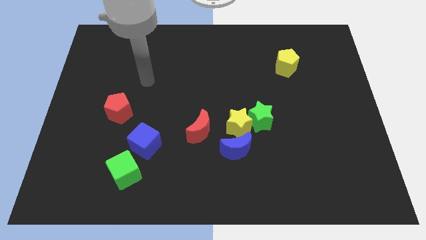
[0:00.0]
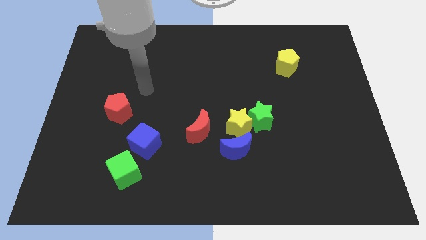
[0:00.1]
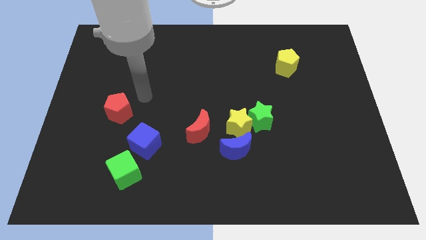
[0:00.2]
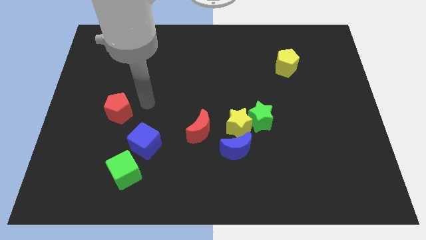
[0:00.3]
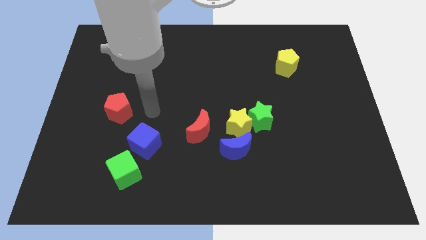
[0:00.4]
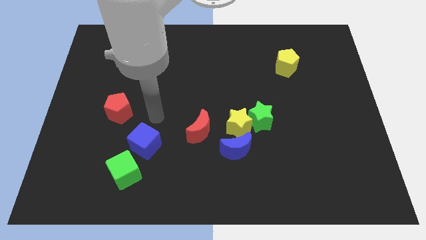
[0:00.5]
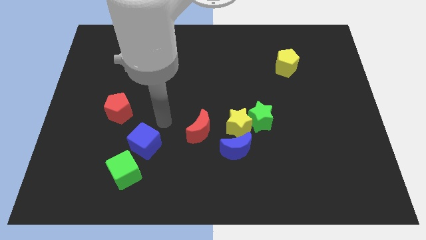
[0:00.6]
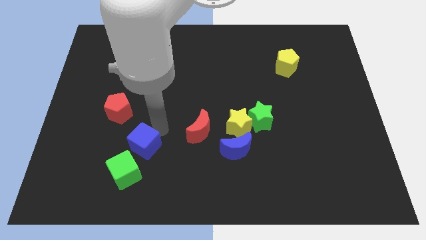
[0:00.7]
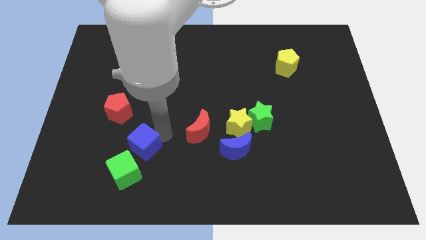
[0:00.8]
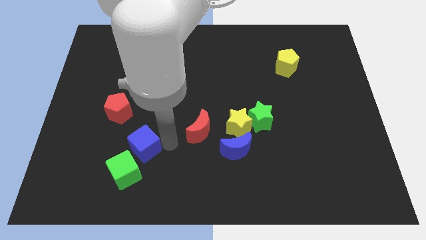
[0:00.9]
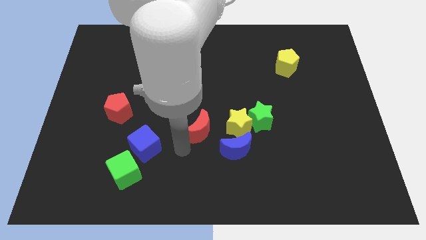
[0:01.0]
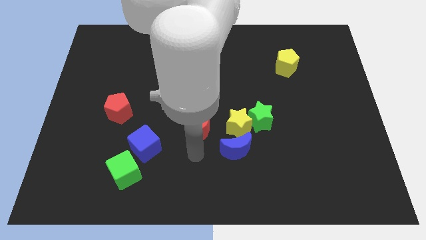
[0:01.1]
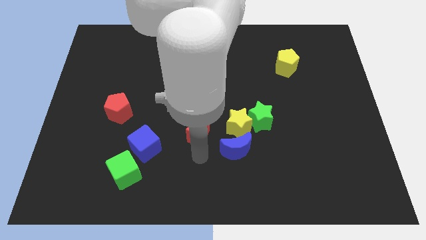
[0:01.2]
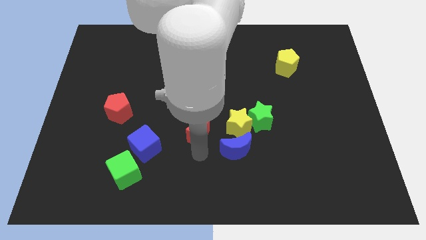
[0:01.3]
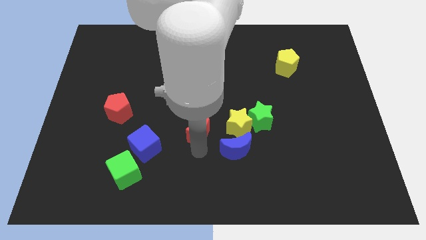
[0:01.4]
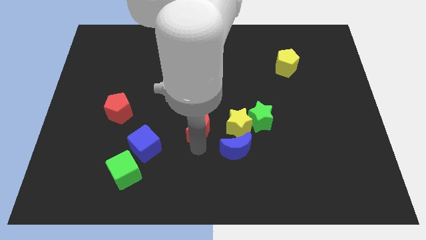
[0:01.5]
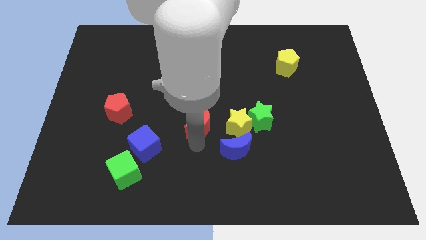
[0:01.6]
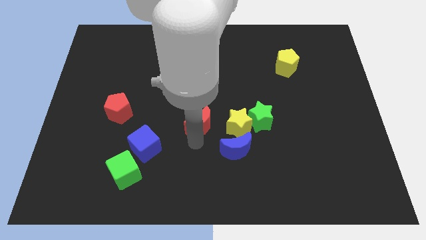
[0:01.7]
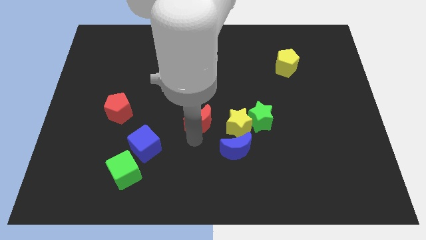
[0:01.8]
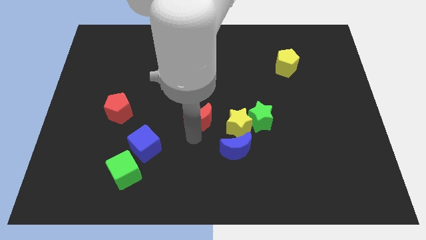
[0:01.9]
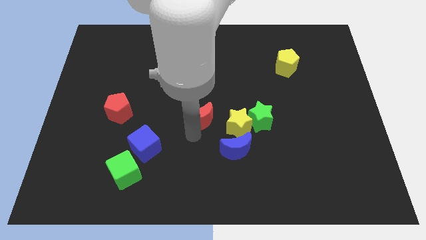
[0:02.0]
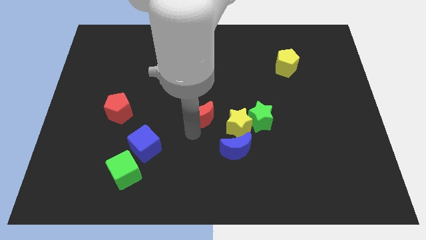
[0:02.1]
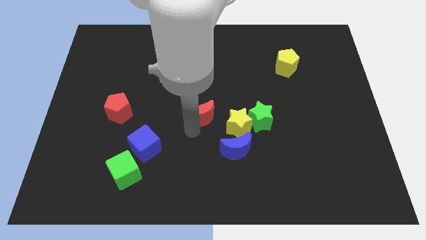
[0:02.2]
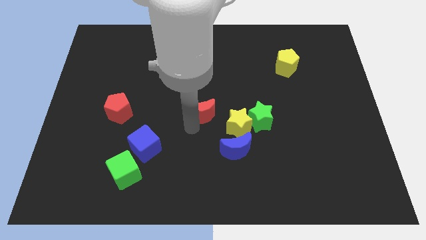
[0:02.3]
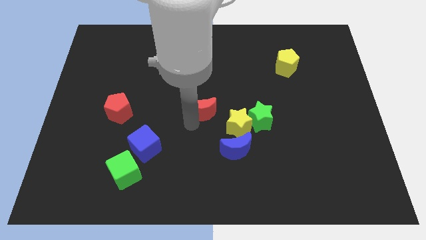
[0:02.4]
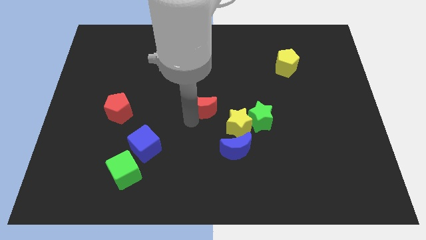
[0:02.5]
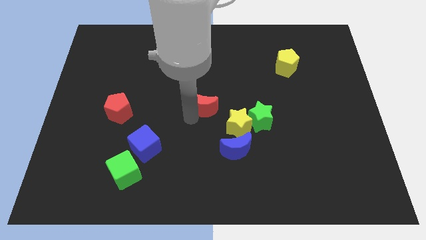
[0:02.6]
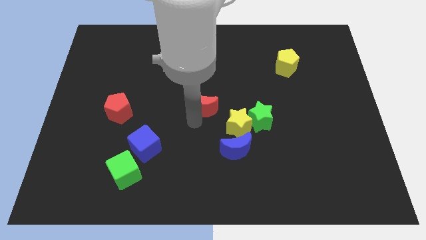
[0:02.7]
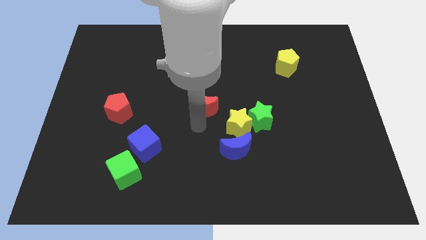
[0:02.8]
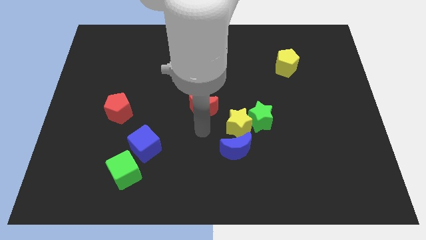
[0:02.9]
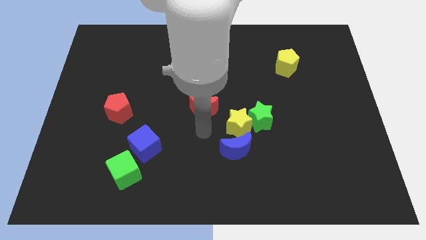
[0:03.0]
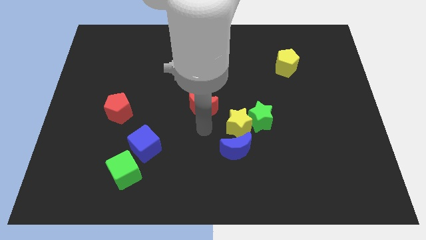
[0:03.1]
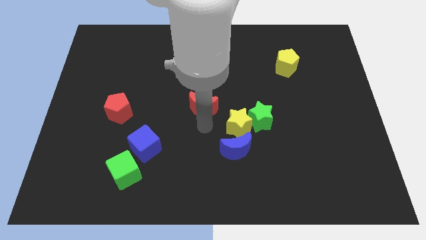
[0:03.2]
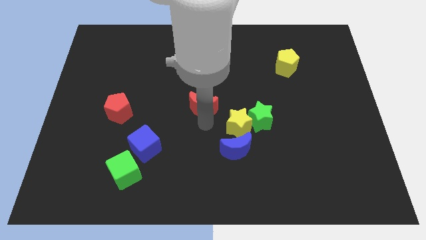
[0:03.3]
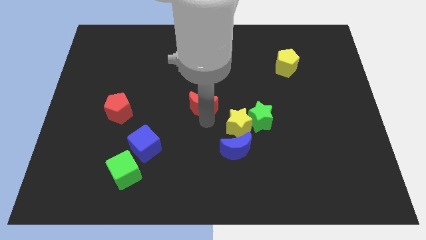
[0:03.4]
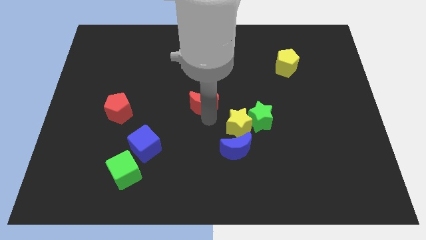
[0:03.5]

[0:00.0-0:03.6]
move the red moon upwards a bit

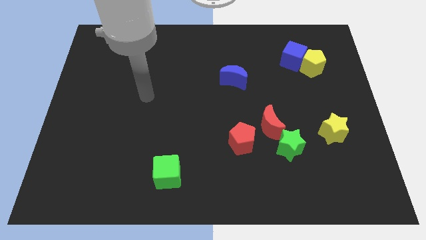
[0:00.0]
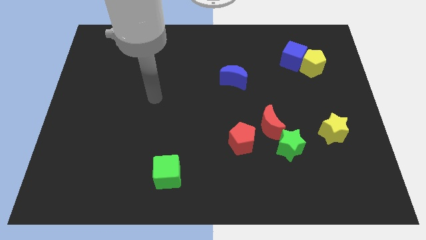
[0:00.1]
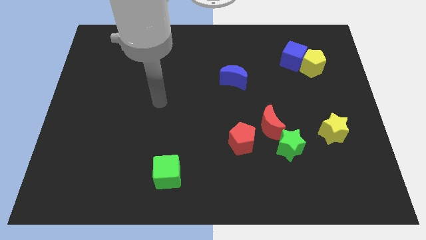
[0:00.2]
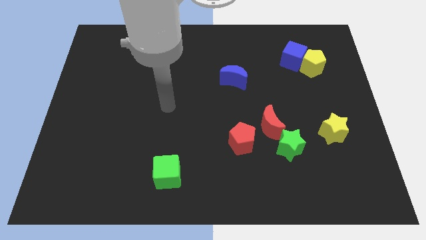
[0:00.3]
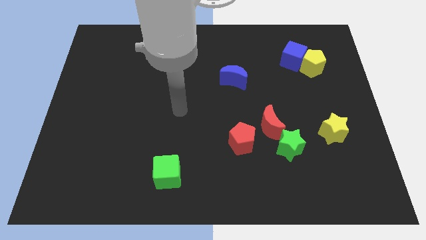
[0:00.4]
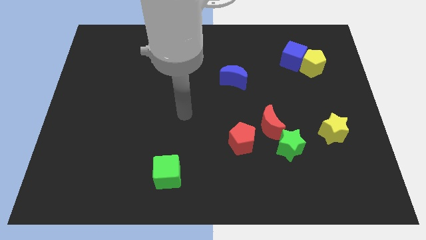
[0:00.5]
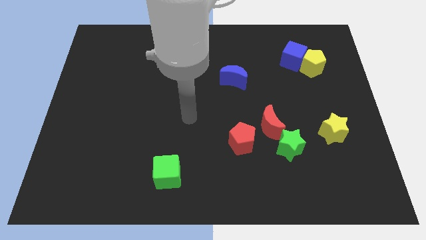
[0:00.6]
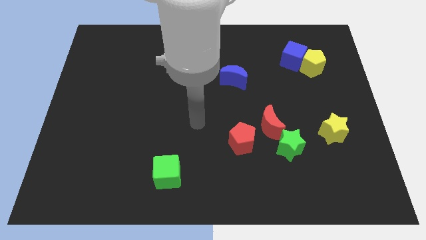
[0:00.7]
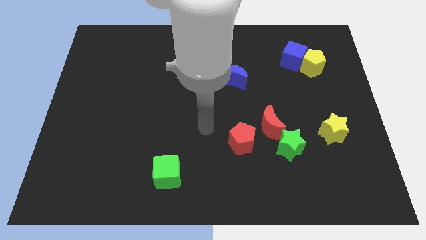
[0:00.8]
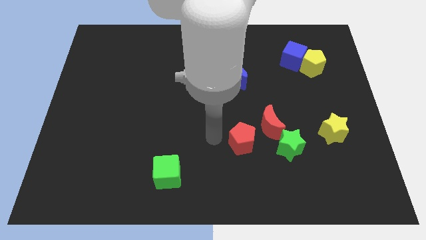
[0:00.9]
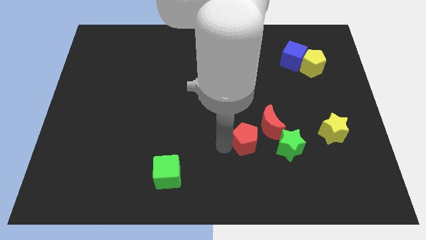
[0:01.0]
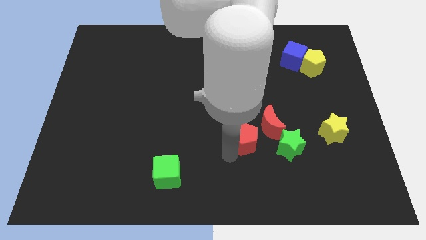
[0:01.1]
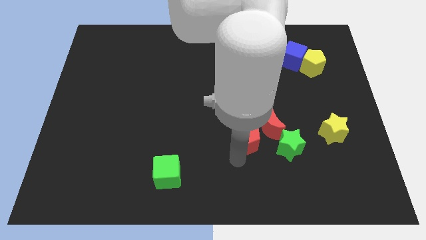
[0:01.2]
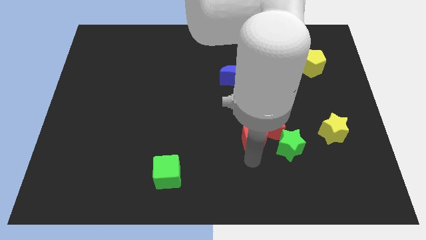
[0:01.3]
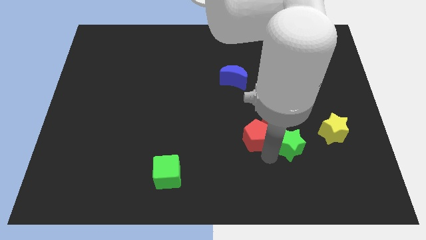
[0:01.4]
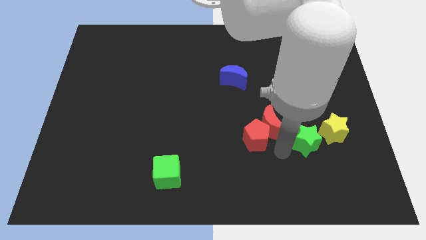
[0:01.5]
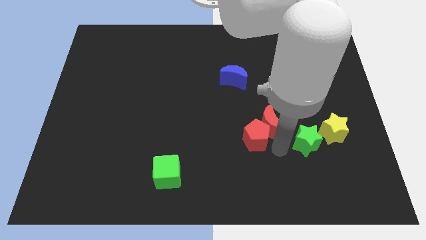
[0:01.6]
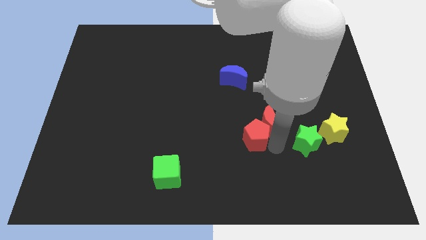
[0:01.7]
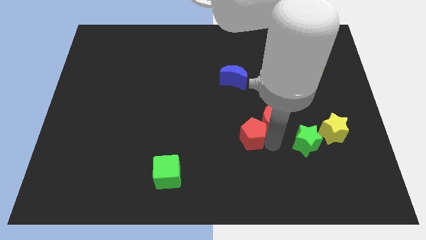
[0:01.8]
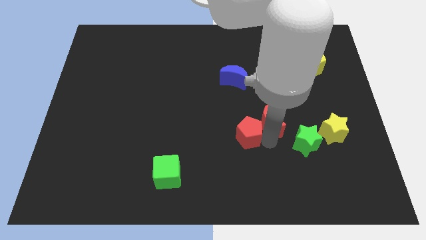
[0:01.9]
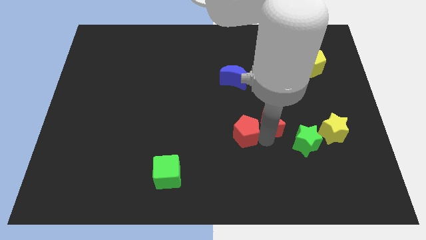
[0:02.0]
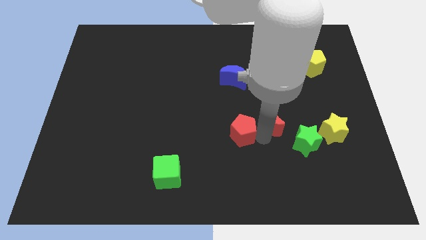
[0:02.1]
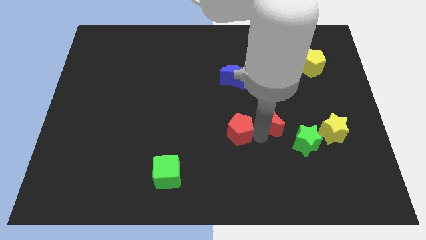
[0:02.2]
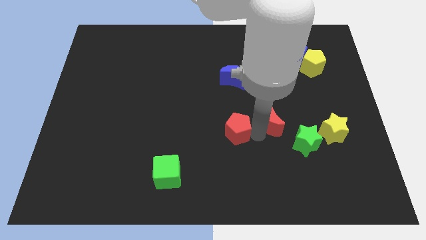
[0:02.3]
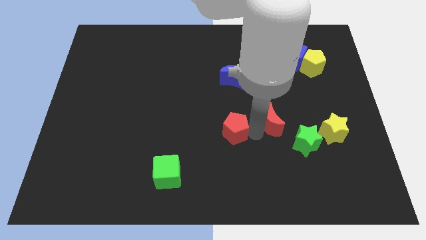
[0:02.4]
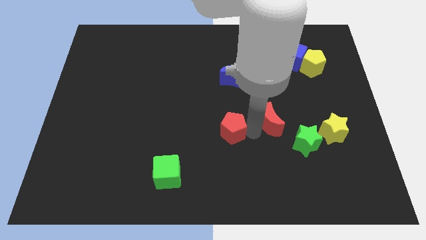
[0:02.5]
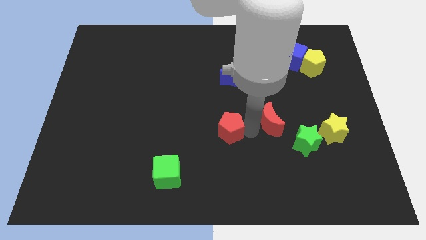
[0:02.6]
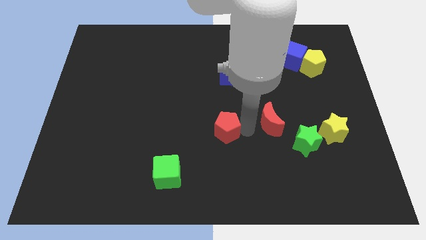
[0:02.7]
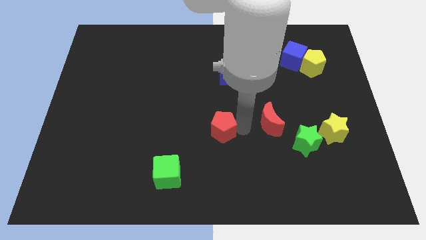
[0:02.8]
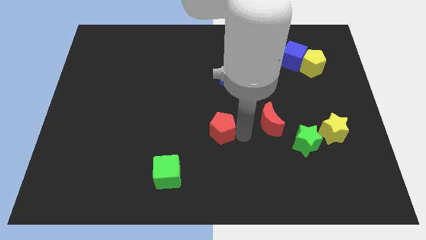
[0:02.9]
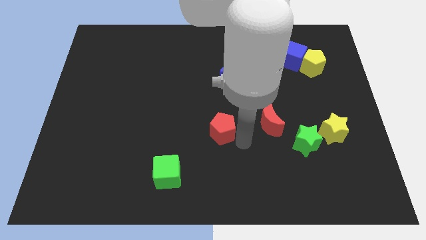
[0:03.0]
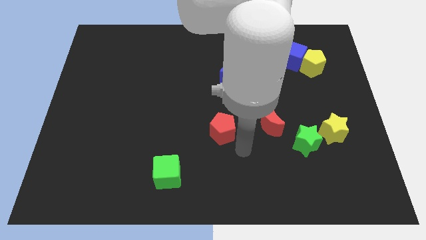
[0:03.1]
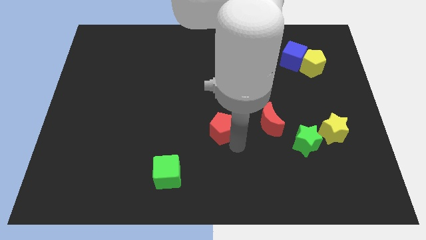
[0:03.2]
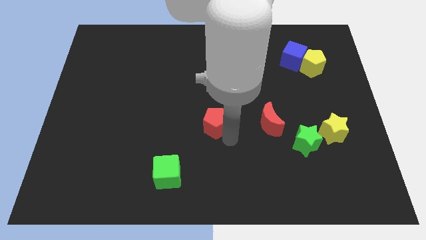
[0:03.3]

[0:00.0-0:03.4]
move the red pentagon up and then left a bit

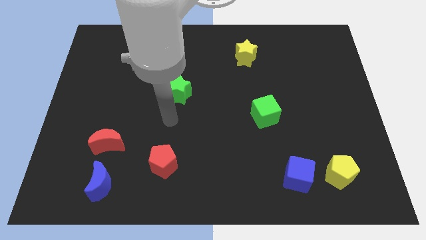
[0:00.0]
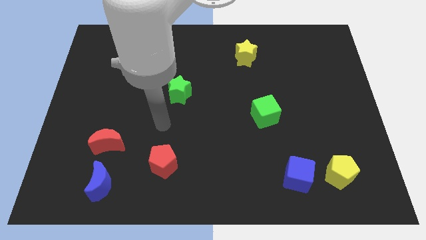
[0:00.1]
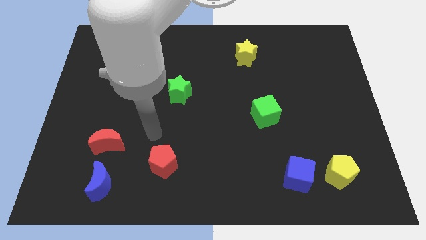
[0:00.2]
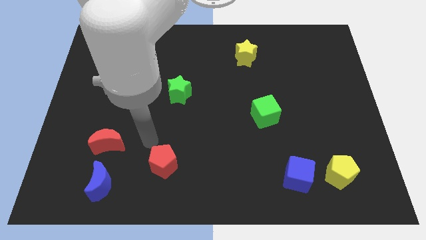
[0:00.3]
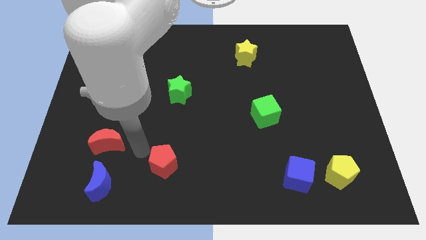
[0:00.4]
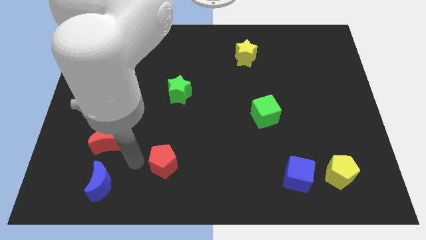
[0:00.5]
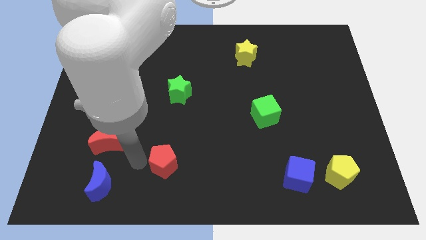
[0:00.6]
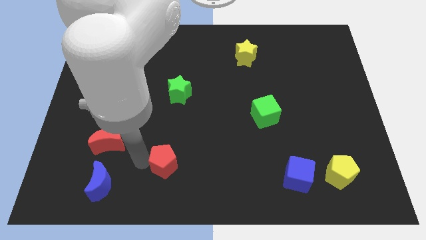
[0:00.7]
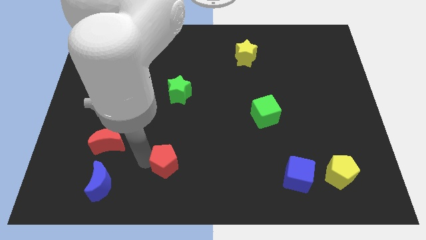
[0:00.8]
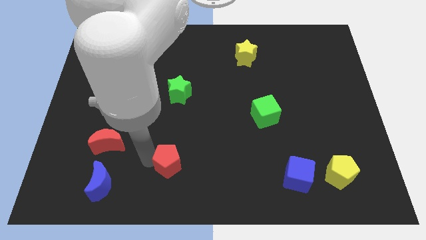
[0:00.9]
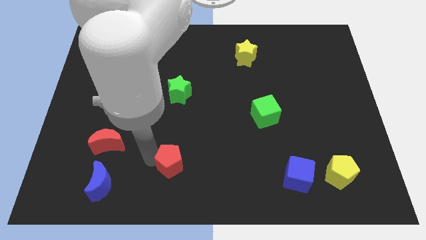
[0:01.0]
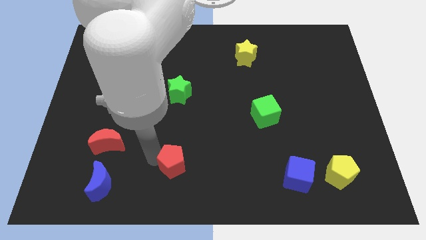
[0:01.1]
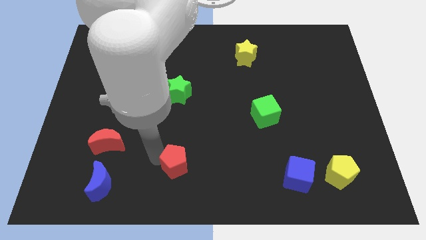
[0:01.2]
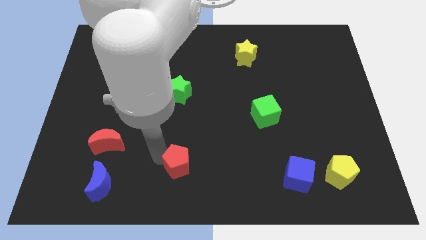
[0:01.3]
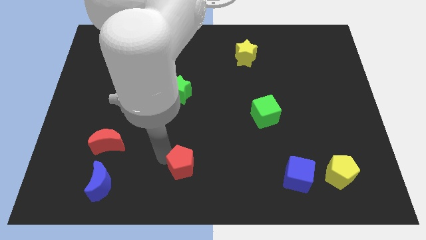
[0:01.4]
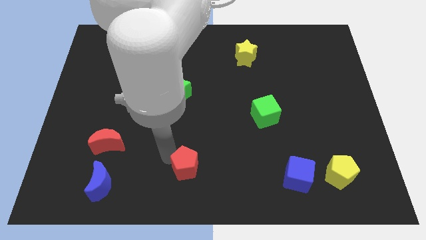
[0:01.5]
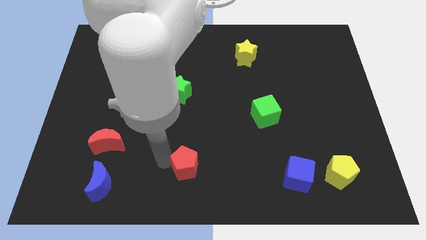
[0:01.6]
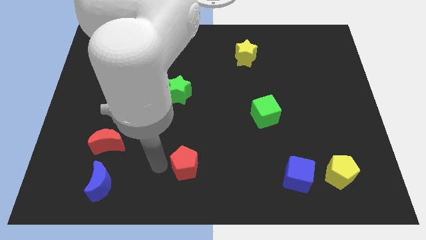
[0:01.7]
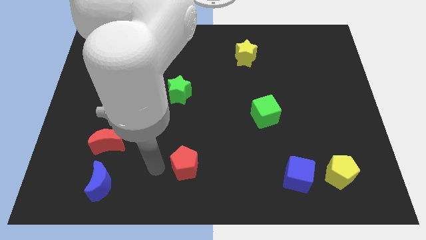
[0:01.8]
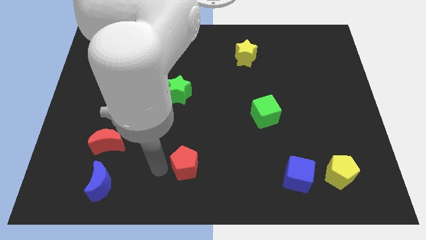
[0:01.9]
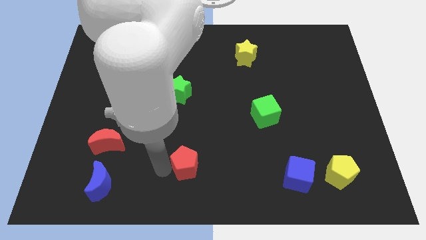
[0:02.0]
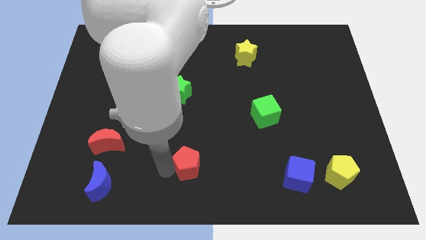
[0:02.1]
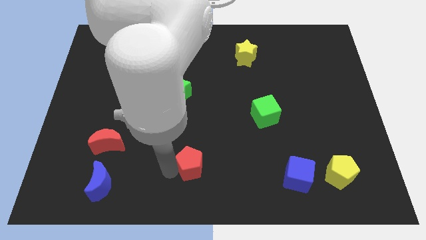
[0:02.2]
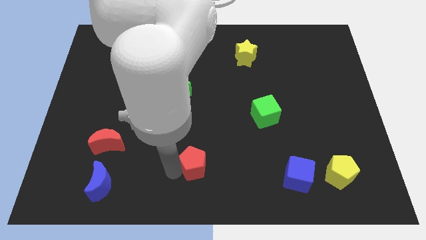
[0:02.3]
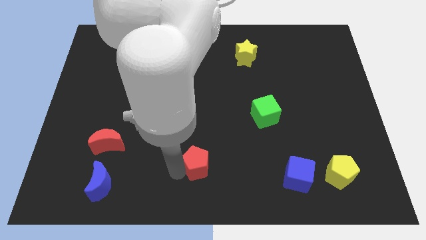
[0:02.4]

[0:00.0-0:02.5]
move the red pentagon a little right
